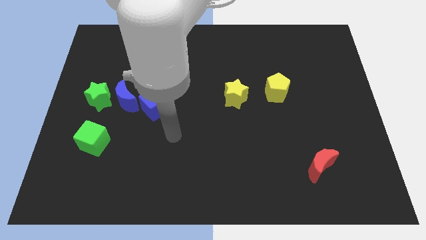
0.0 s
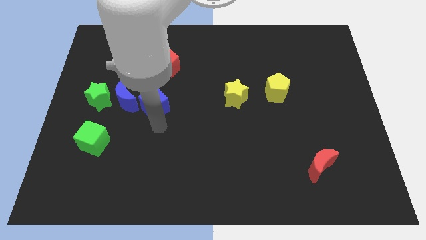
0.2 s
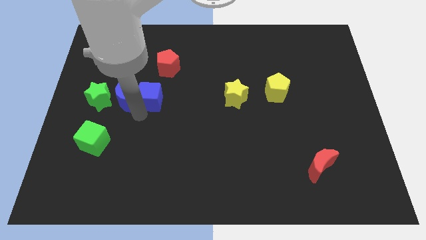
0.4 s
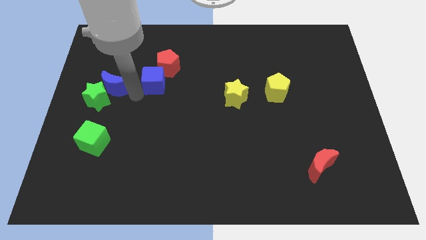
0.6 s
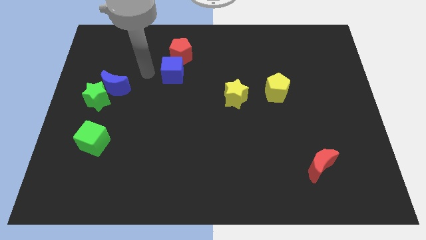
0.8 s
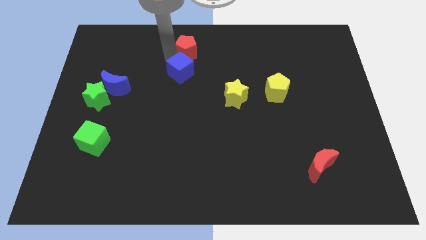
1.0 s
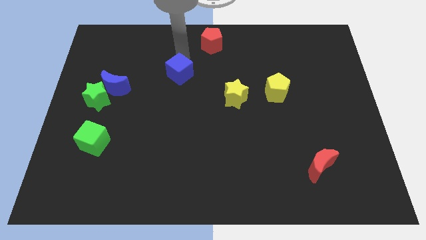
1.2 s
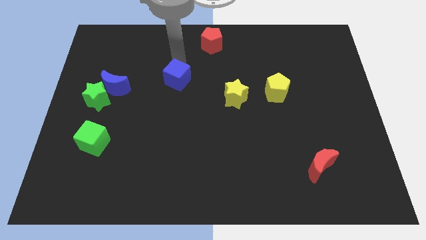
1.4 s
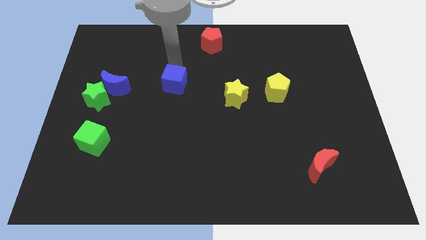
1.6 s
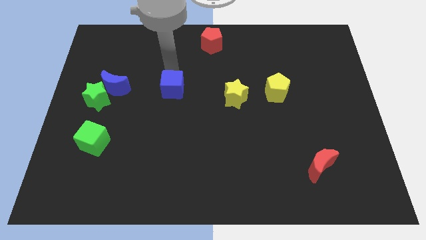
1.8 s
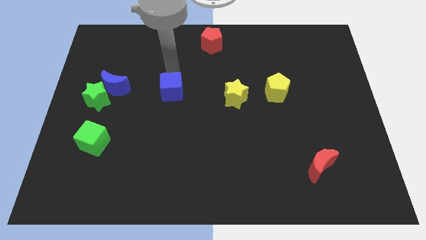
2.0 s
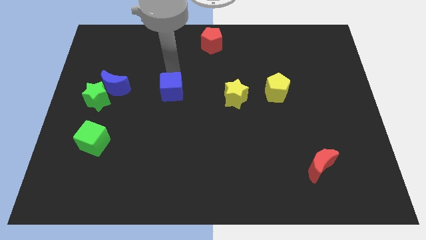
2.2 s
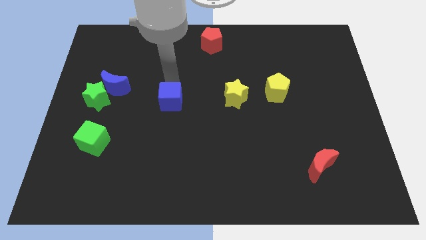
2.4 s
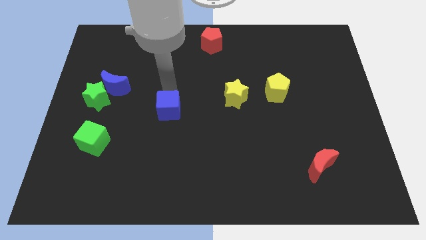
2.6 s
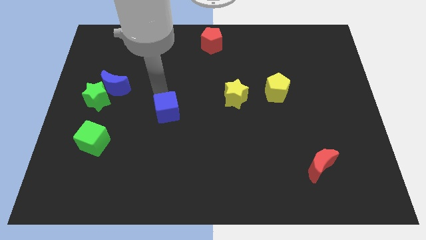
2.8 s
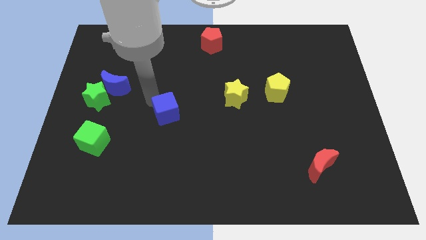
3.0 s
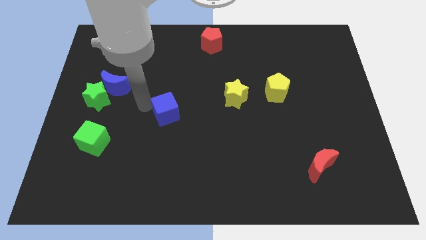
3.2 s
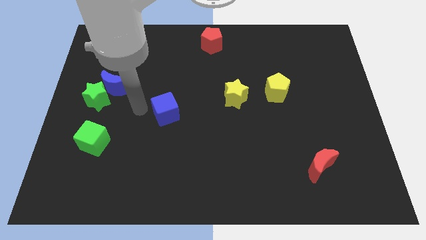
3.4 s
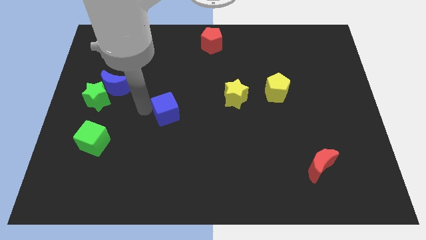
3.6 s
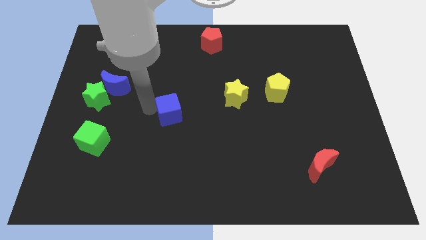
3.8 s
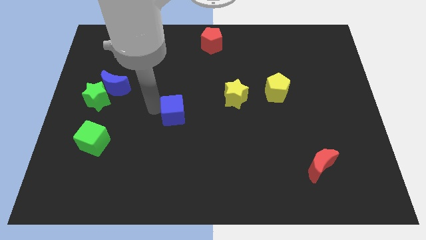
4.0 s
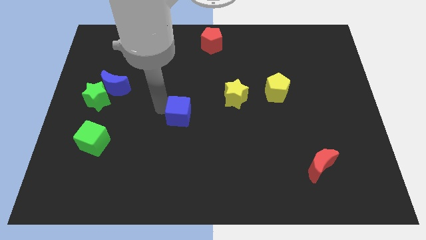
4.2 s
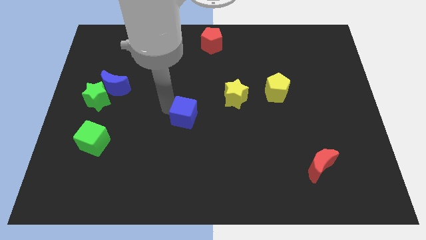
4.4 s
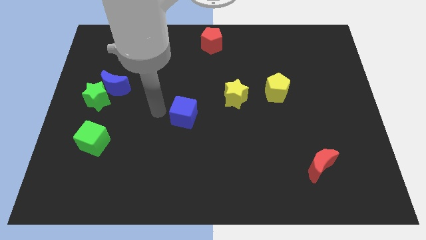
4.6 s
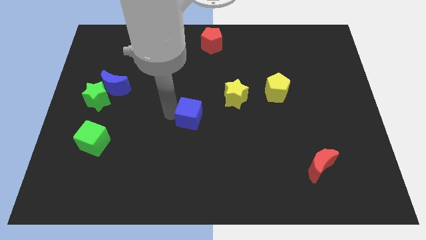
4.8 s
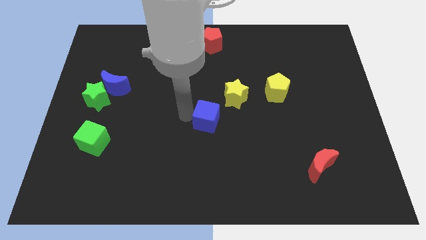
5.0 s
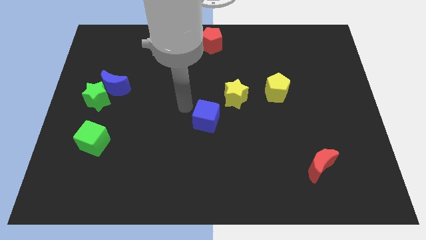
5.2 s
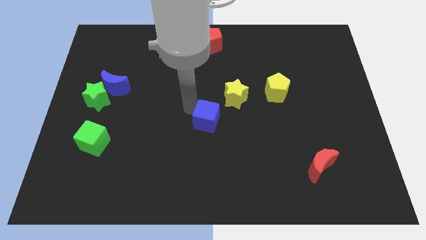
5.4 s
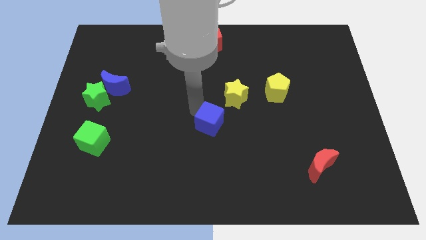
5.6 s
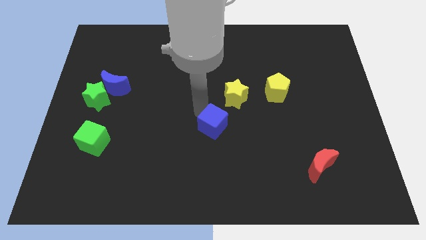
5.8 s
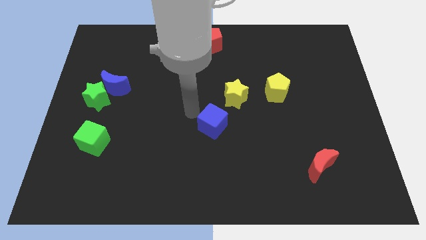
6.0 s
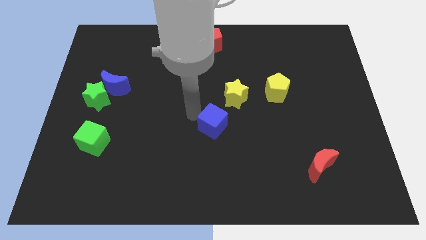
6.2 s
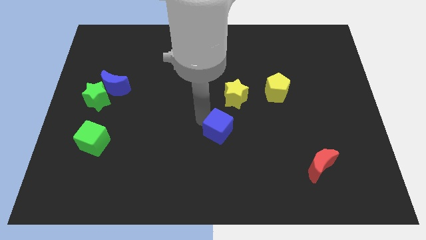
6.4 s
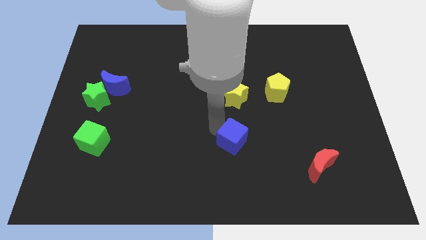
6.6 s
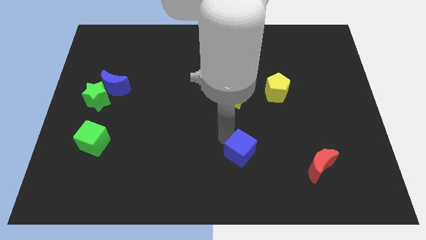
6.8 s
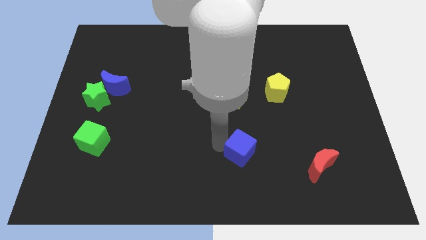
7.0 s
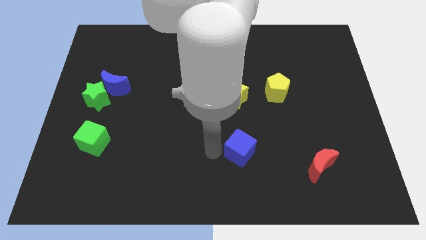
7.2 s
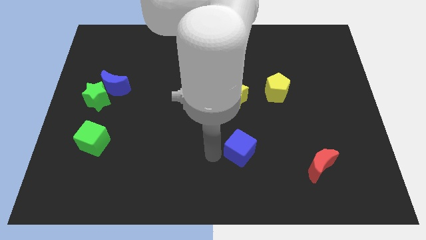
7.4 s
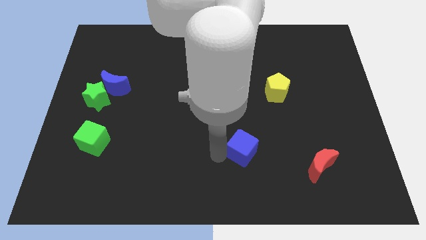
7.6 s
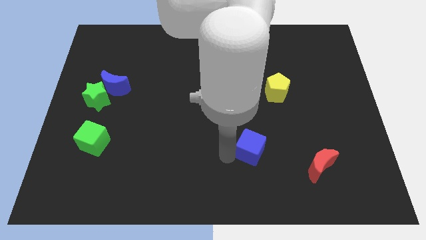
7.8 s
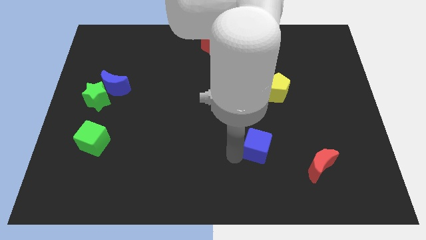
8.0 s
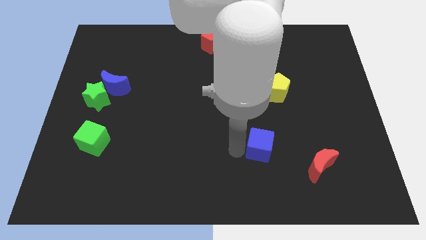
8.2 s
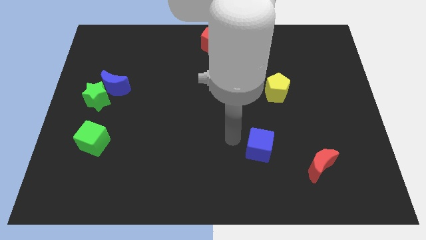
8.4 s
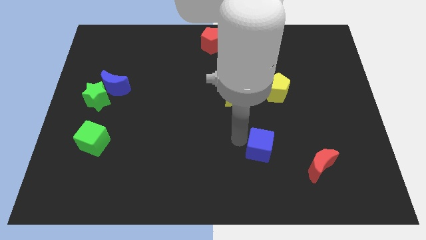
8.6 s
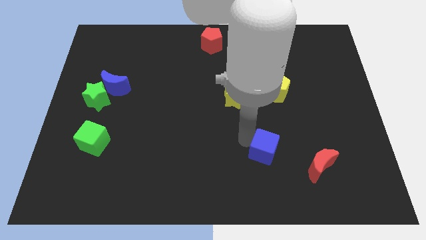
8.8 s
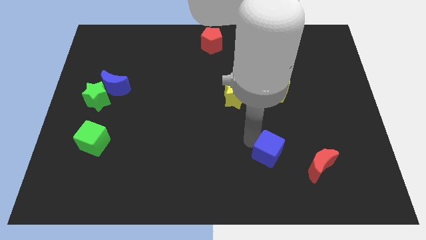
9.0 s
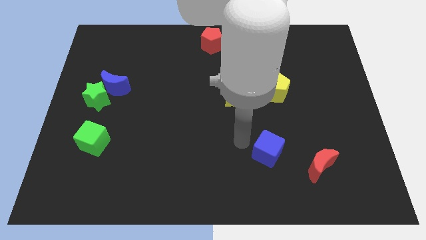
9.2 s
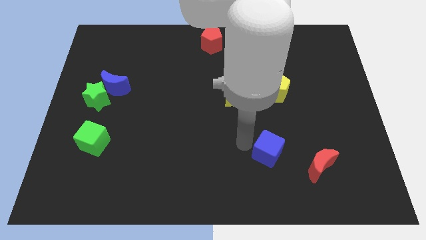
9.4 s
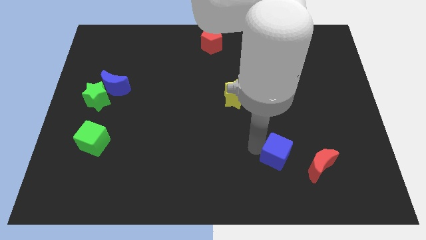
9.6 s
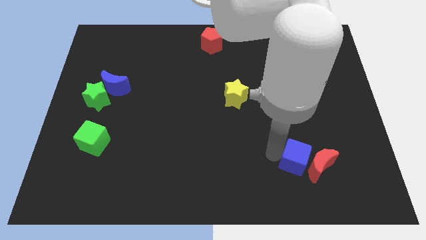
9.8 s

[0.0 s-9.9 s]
push the blue cube towards the red moon

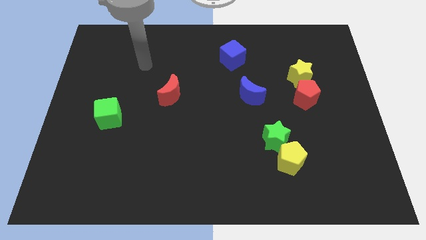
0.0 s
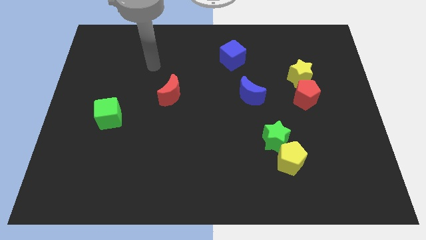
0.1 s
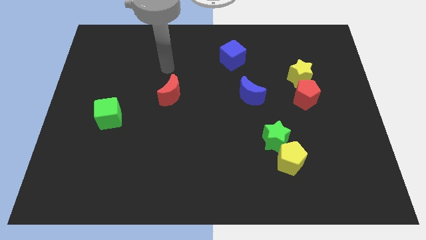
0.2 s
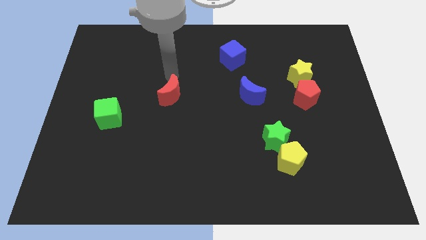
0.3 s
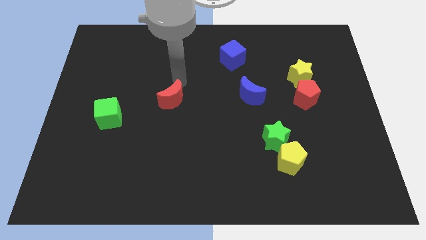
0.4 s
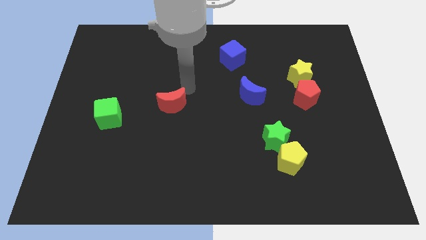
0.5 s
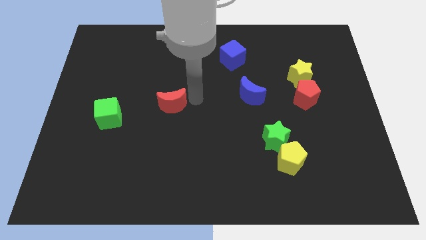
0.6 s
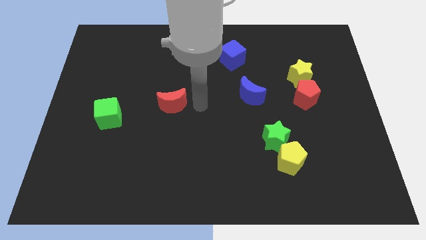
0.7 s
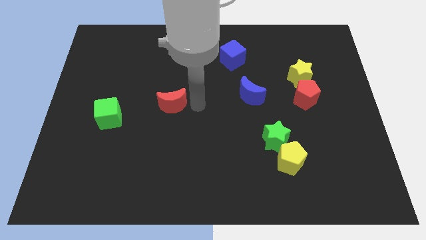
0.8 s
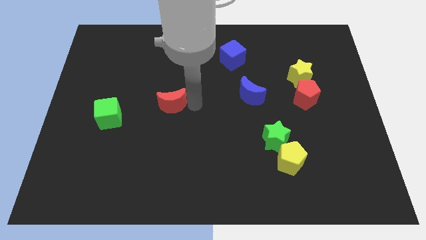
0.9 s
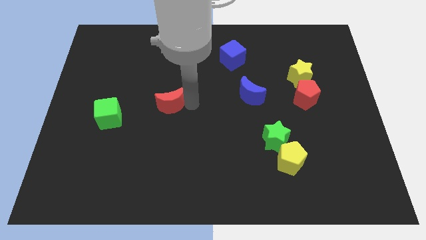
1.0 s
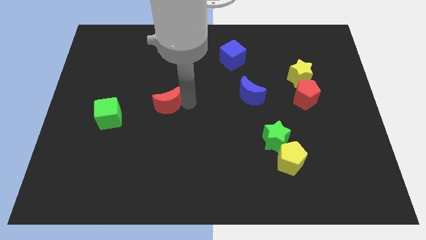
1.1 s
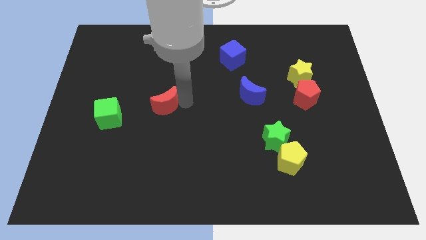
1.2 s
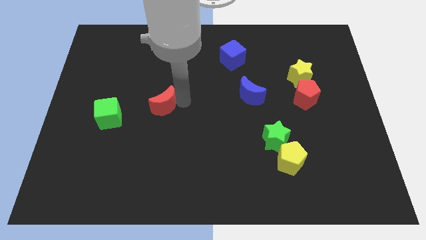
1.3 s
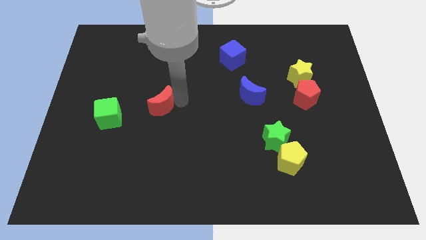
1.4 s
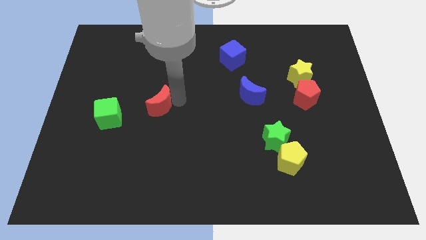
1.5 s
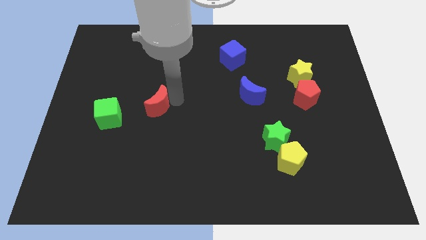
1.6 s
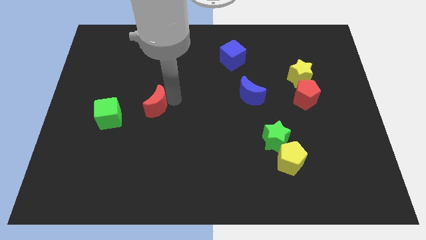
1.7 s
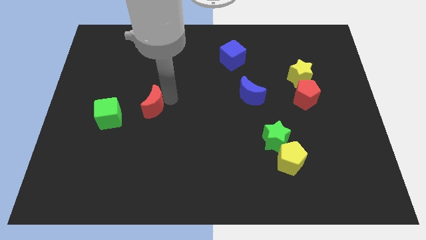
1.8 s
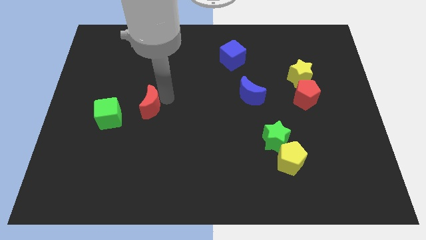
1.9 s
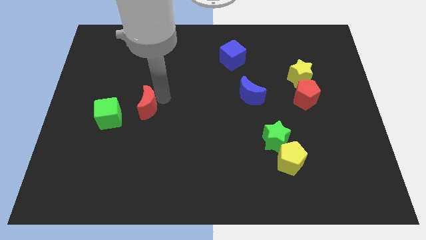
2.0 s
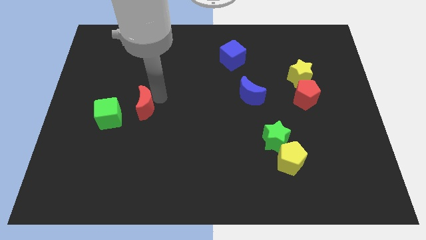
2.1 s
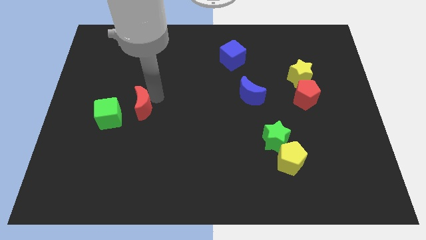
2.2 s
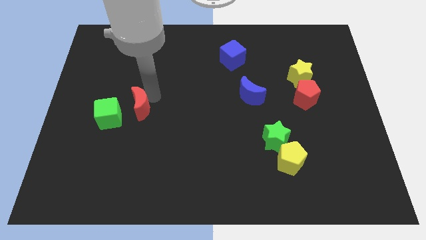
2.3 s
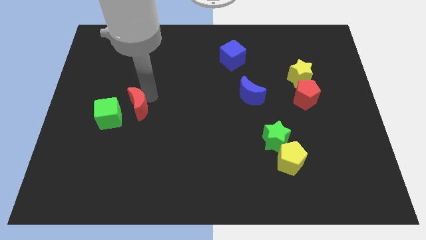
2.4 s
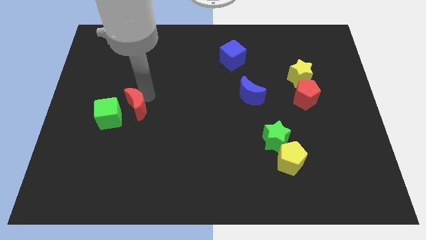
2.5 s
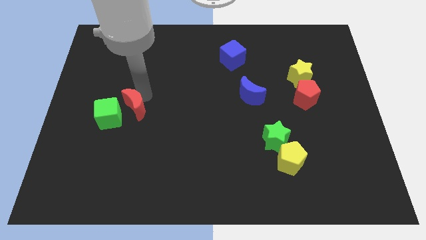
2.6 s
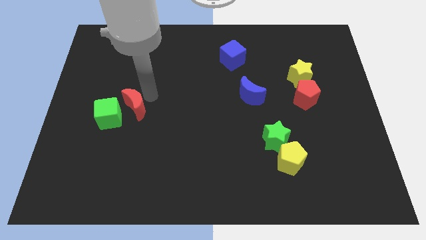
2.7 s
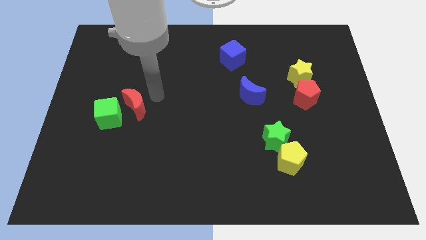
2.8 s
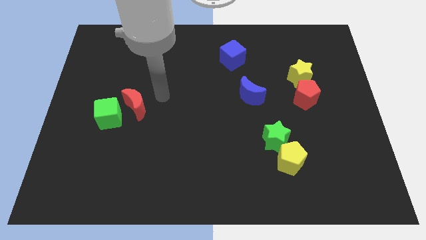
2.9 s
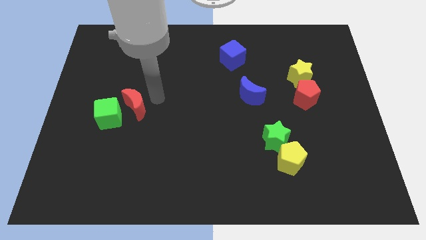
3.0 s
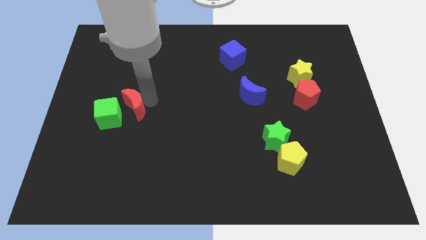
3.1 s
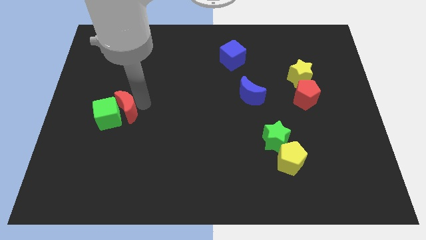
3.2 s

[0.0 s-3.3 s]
push the red moon close to the green cube
